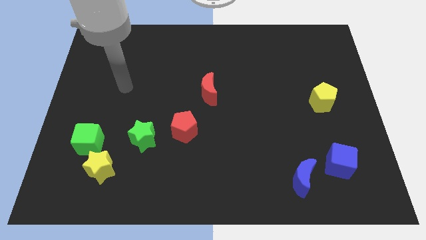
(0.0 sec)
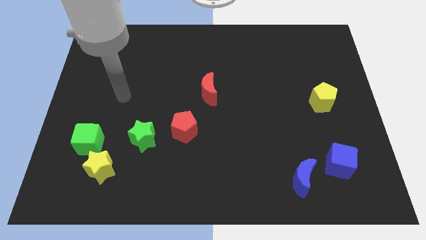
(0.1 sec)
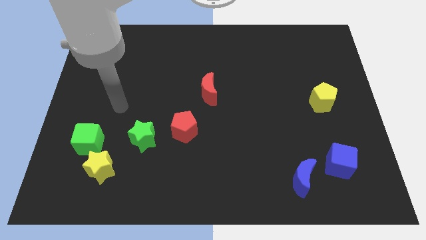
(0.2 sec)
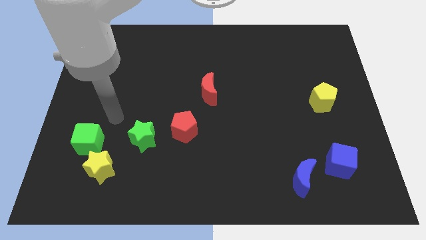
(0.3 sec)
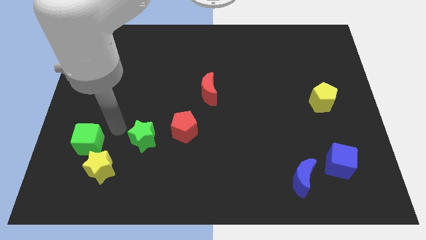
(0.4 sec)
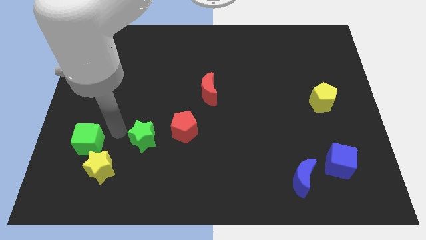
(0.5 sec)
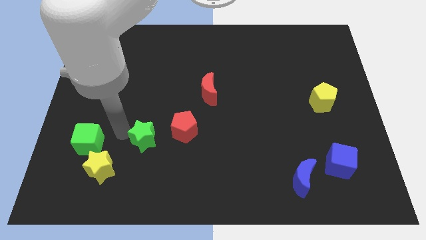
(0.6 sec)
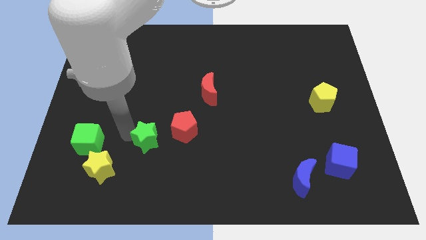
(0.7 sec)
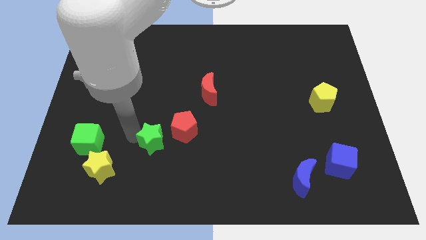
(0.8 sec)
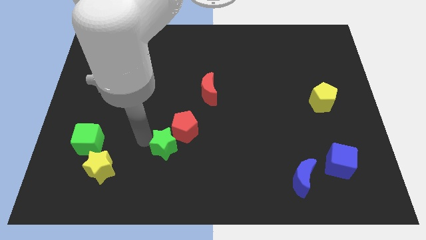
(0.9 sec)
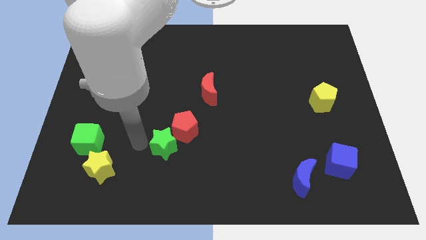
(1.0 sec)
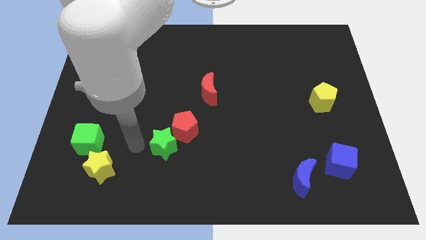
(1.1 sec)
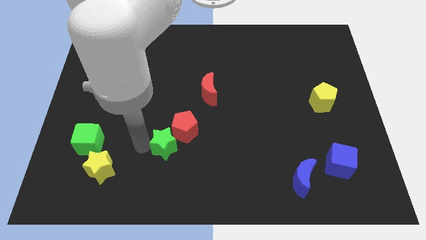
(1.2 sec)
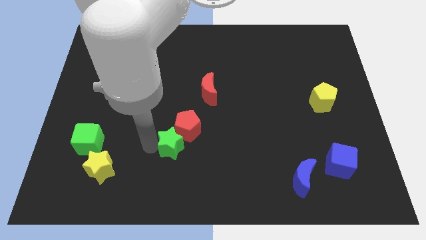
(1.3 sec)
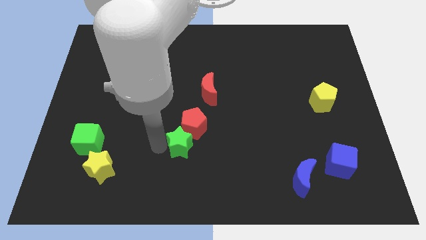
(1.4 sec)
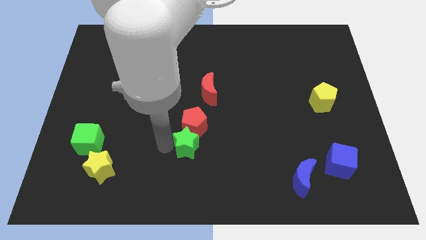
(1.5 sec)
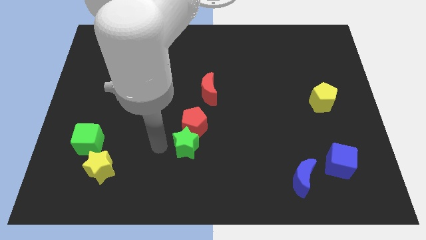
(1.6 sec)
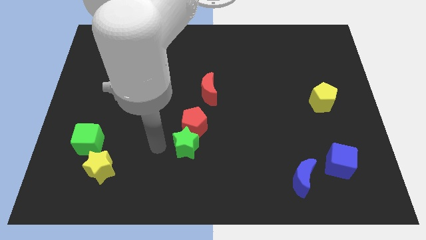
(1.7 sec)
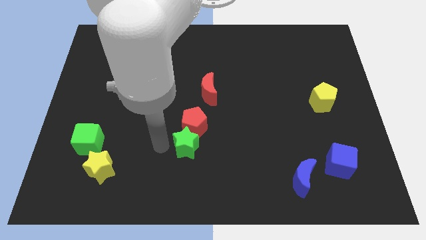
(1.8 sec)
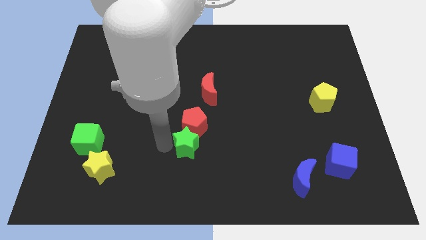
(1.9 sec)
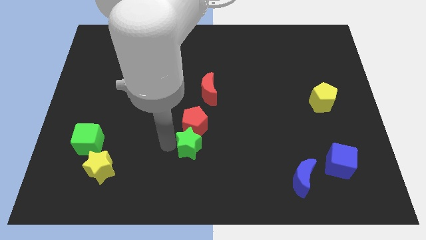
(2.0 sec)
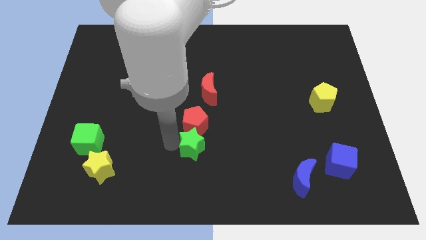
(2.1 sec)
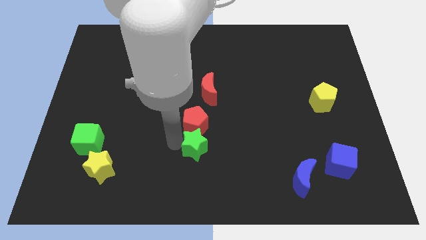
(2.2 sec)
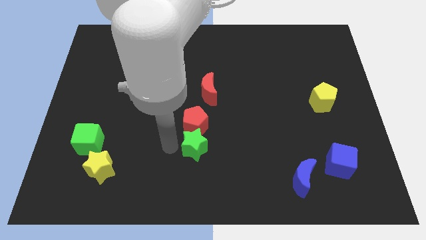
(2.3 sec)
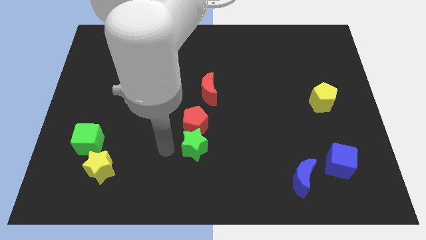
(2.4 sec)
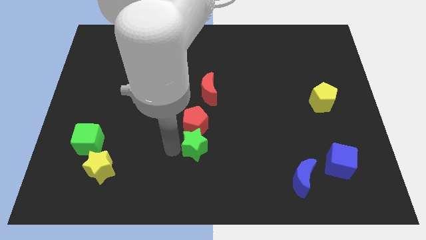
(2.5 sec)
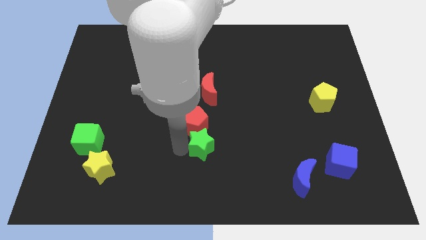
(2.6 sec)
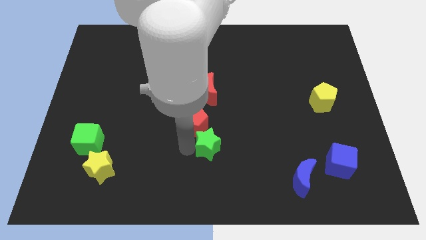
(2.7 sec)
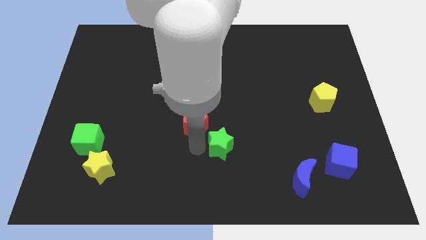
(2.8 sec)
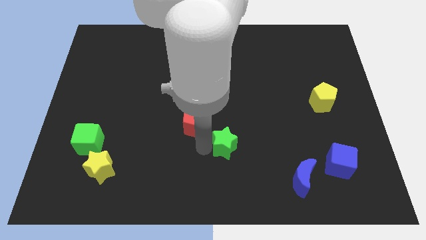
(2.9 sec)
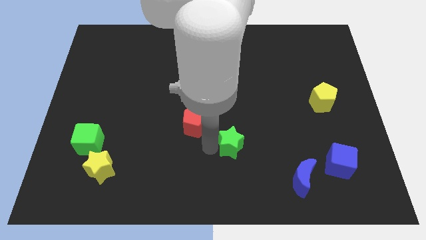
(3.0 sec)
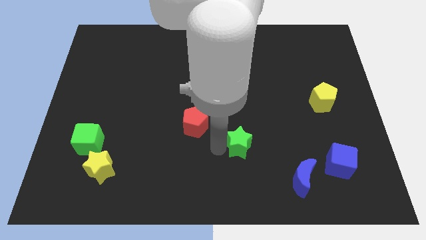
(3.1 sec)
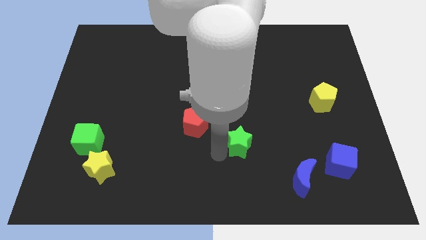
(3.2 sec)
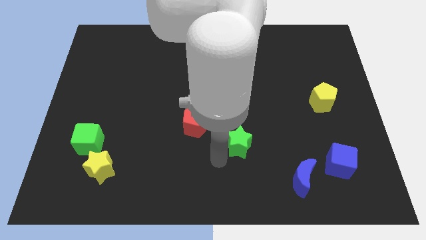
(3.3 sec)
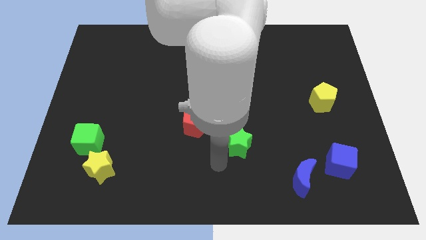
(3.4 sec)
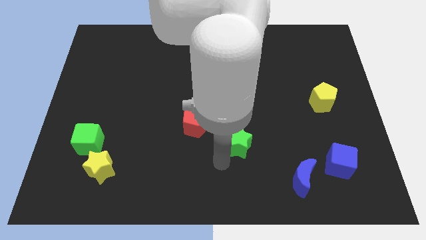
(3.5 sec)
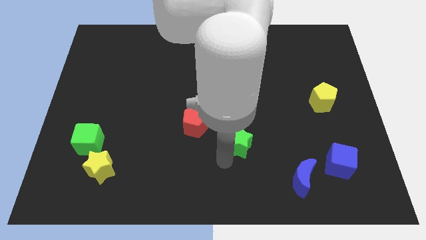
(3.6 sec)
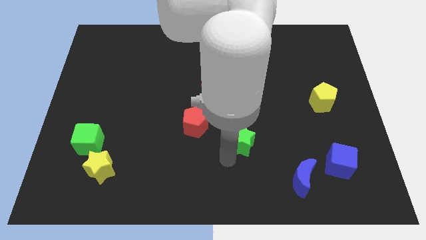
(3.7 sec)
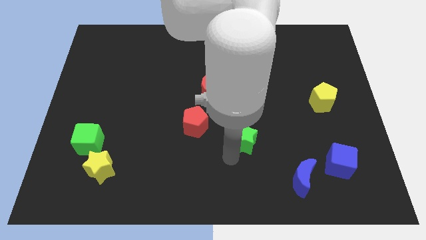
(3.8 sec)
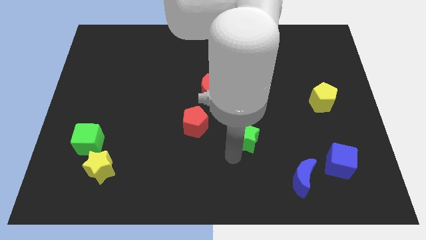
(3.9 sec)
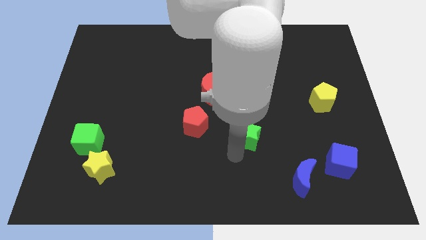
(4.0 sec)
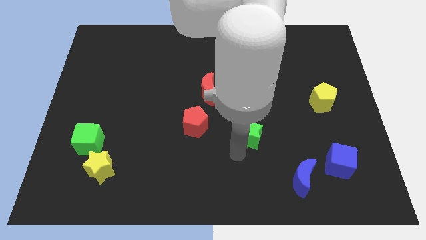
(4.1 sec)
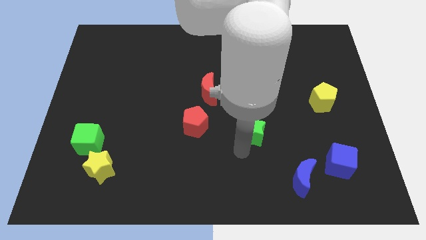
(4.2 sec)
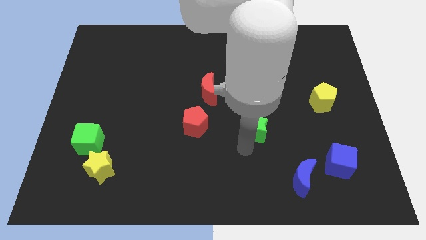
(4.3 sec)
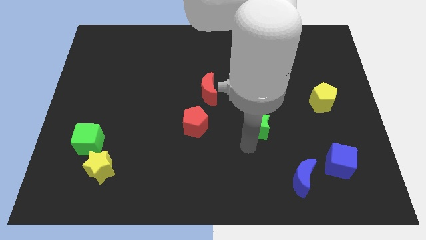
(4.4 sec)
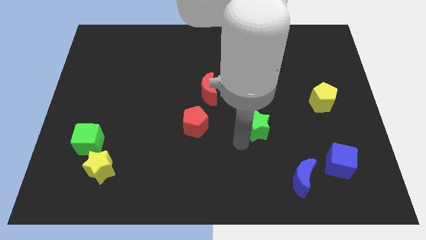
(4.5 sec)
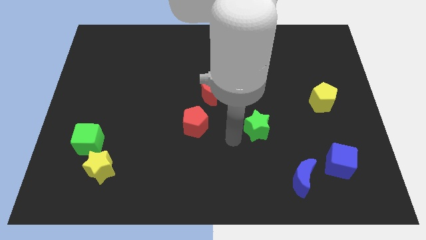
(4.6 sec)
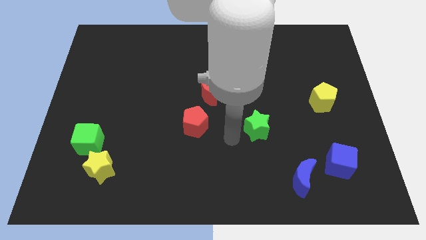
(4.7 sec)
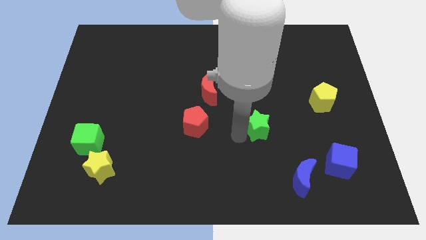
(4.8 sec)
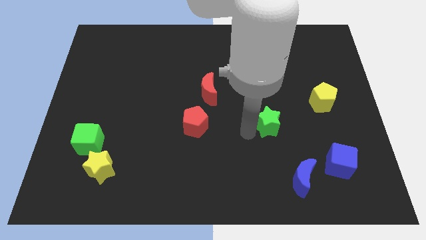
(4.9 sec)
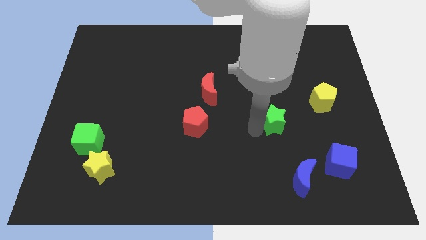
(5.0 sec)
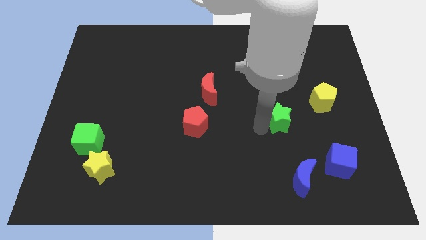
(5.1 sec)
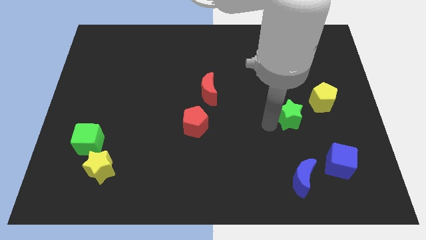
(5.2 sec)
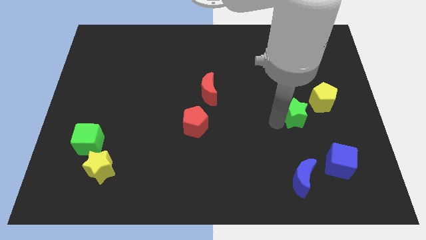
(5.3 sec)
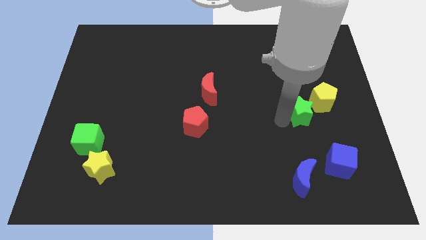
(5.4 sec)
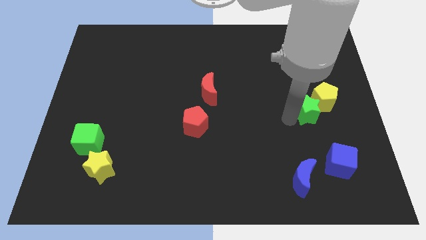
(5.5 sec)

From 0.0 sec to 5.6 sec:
slide the green star close to the yellow pentagon

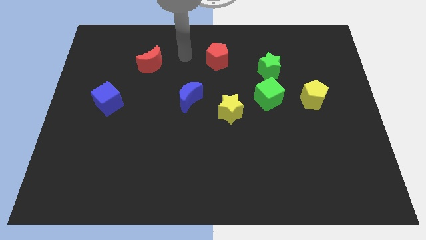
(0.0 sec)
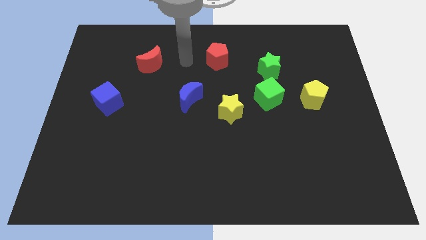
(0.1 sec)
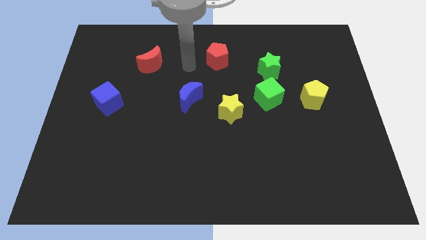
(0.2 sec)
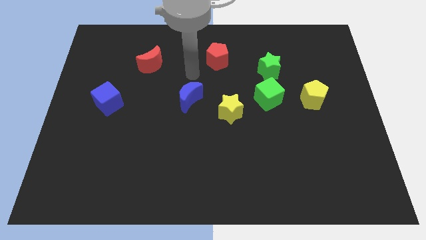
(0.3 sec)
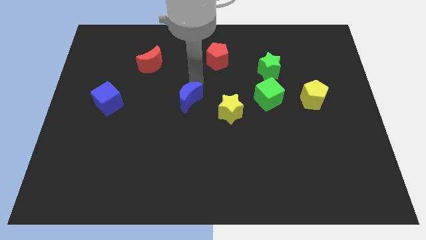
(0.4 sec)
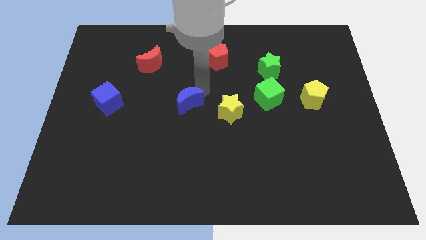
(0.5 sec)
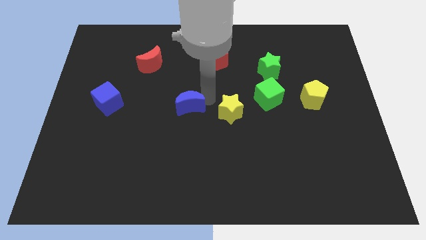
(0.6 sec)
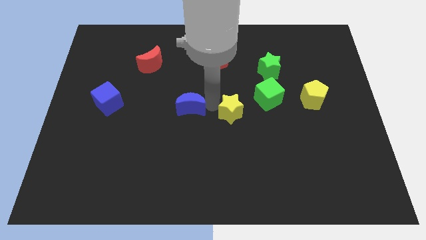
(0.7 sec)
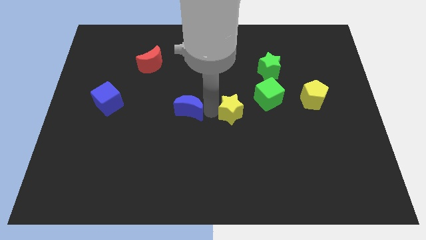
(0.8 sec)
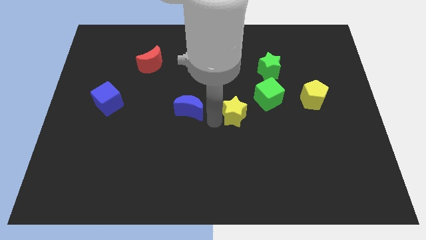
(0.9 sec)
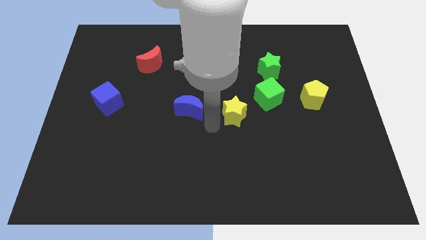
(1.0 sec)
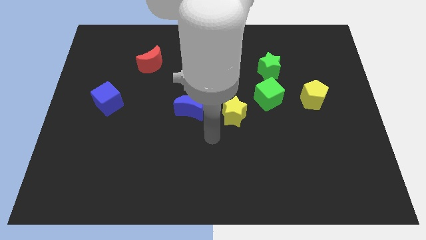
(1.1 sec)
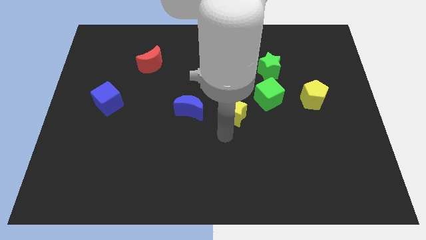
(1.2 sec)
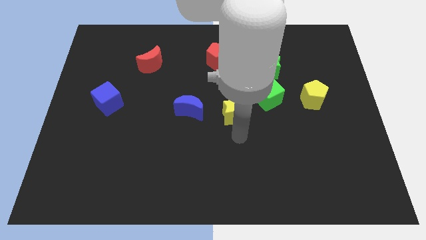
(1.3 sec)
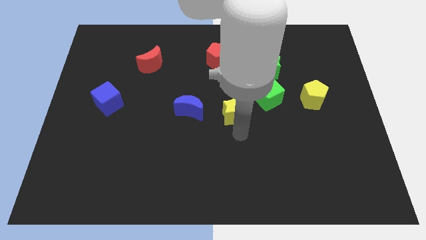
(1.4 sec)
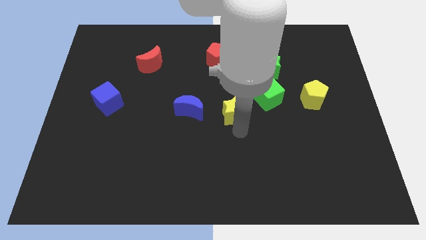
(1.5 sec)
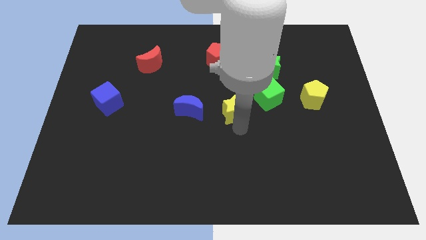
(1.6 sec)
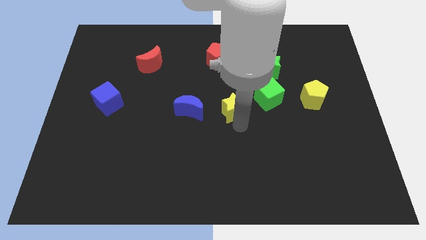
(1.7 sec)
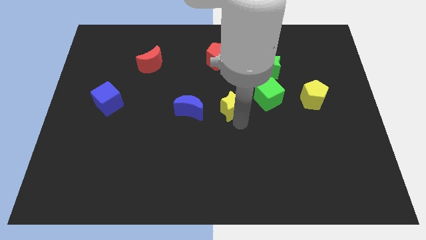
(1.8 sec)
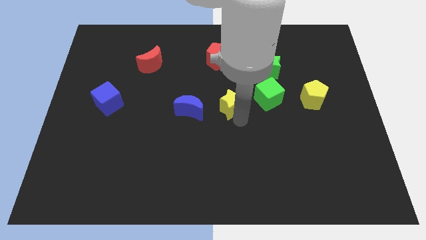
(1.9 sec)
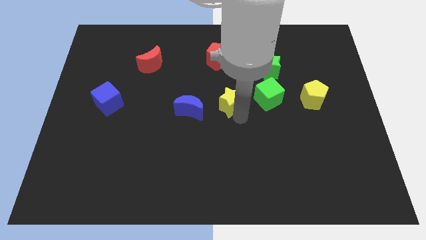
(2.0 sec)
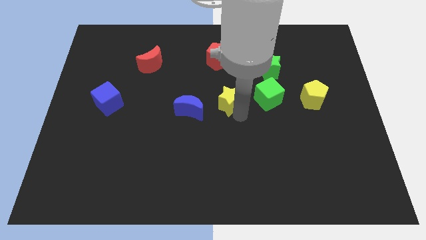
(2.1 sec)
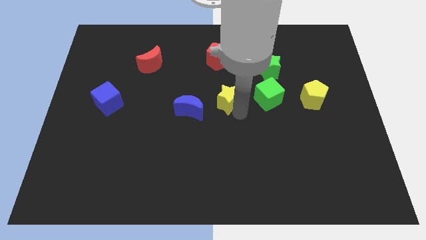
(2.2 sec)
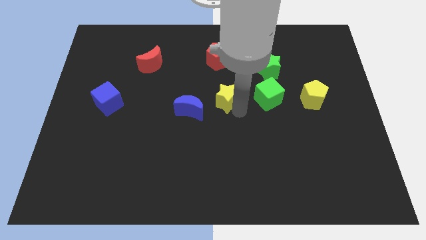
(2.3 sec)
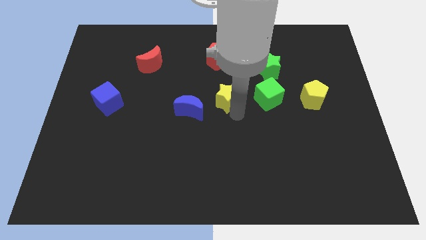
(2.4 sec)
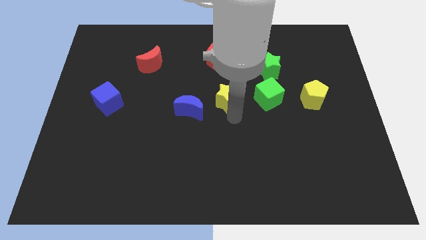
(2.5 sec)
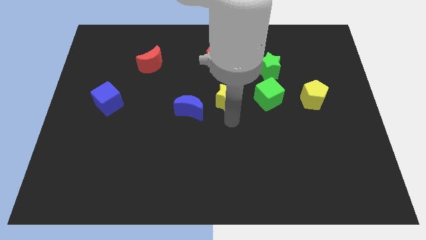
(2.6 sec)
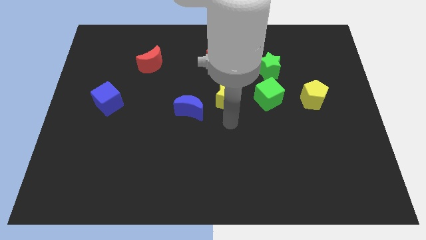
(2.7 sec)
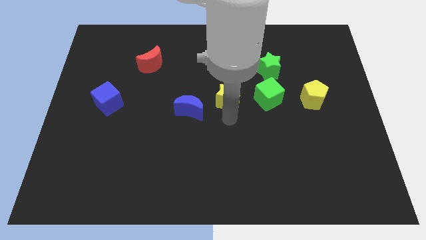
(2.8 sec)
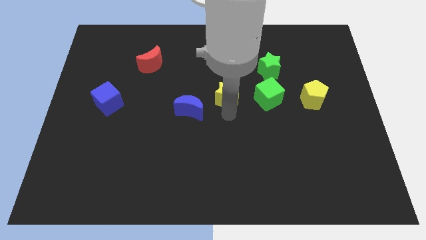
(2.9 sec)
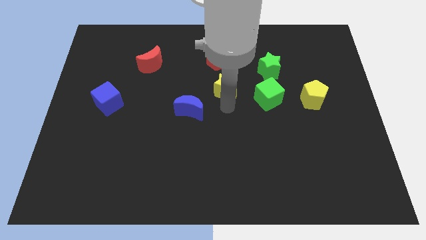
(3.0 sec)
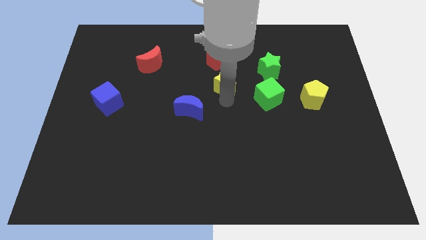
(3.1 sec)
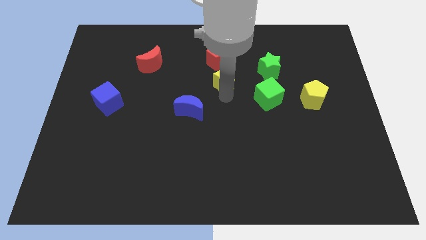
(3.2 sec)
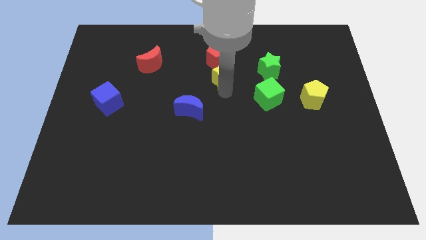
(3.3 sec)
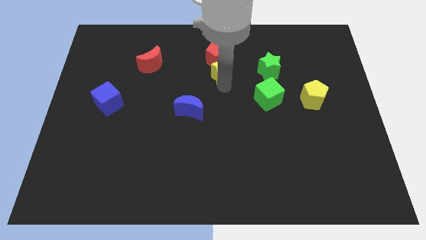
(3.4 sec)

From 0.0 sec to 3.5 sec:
put the yellow star towards the red pentagon
